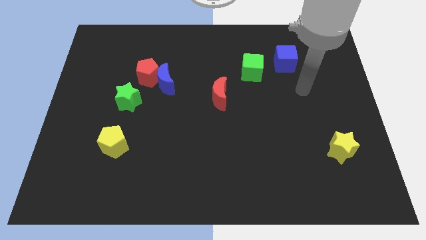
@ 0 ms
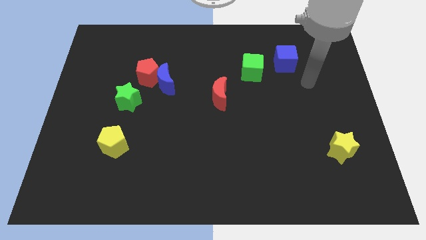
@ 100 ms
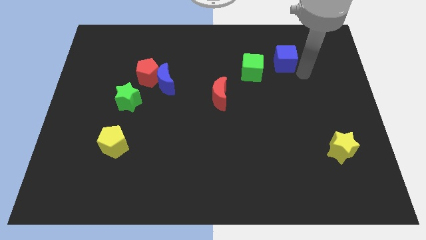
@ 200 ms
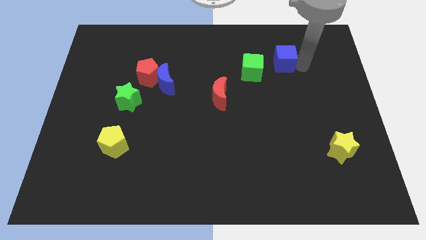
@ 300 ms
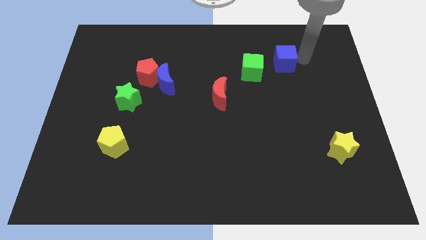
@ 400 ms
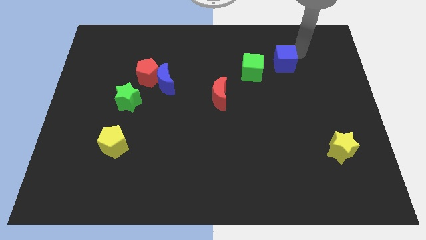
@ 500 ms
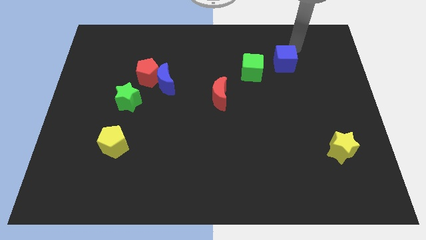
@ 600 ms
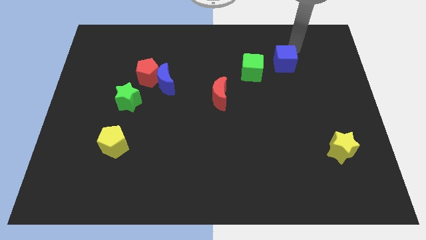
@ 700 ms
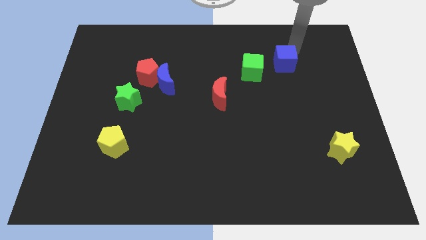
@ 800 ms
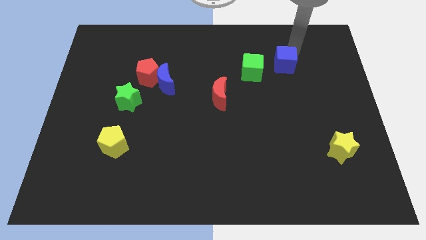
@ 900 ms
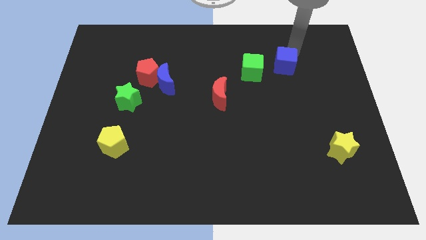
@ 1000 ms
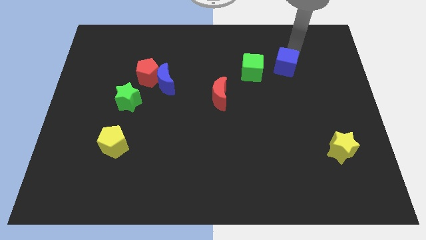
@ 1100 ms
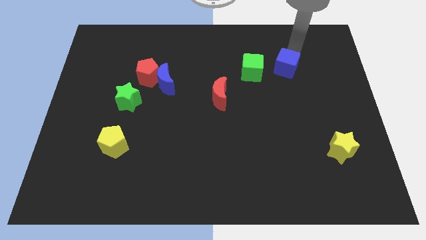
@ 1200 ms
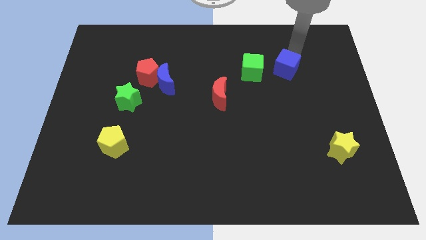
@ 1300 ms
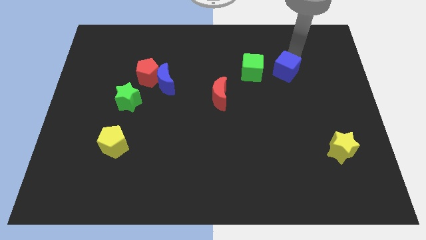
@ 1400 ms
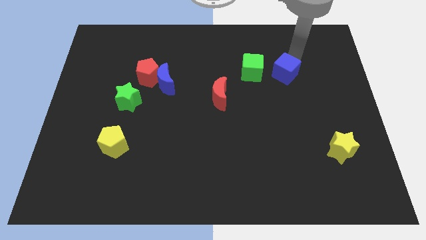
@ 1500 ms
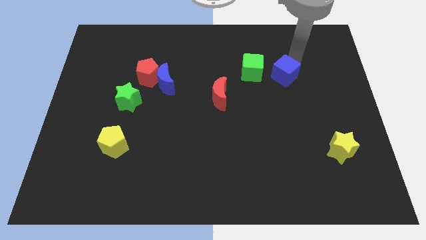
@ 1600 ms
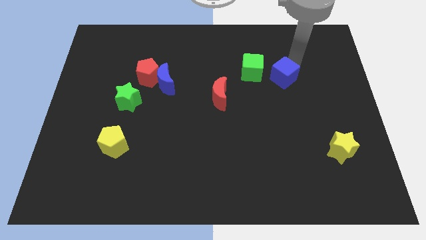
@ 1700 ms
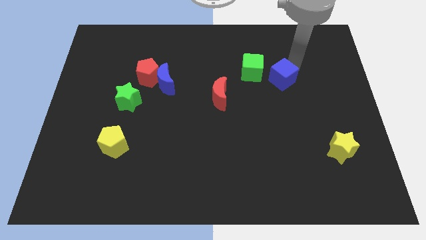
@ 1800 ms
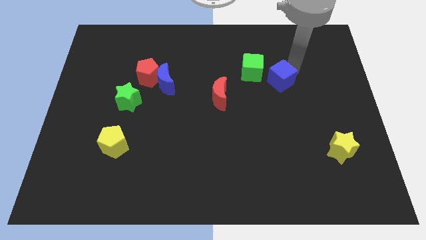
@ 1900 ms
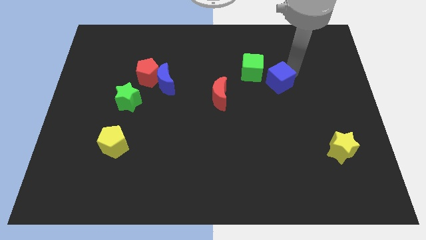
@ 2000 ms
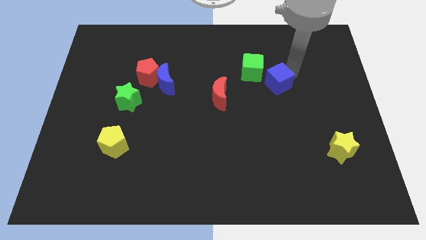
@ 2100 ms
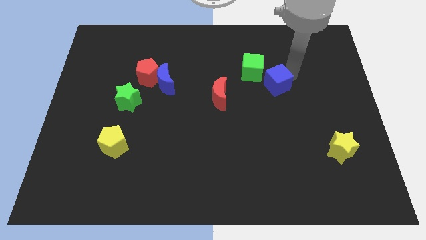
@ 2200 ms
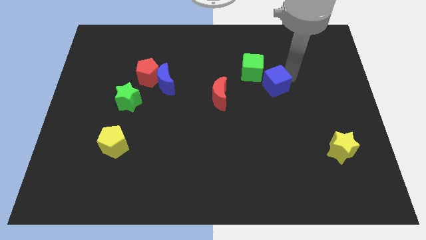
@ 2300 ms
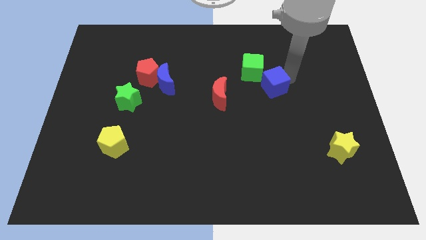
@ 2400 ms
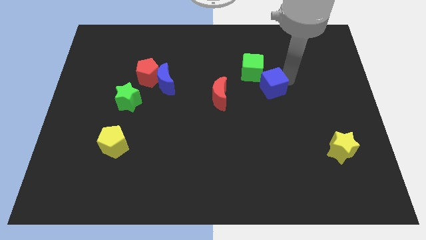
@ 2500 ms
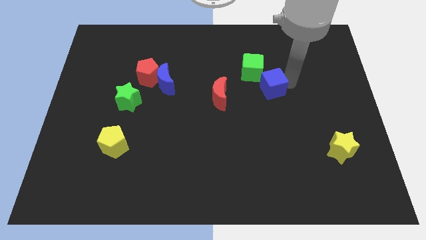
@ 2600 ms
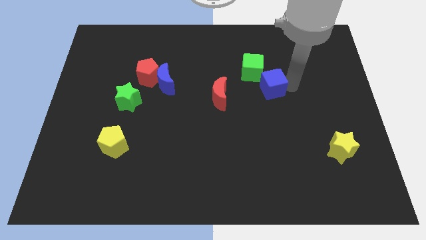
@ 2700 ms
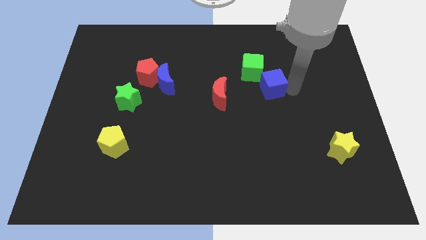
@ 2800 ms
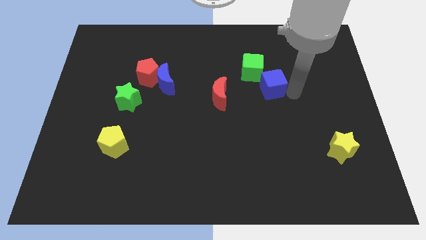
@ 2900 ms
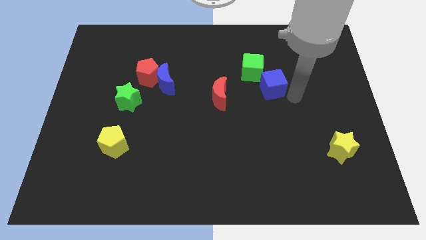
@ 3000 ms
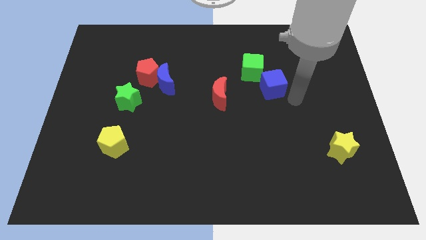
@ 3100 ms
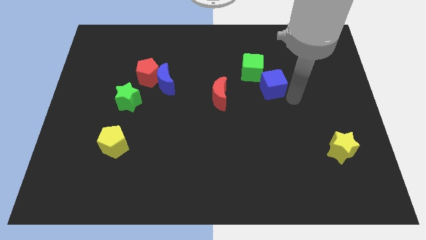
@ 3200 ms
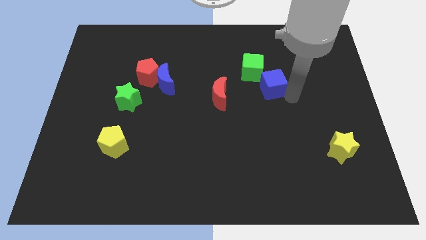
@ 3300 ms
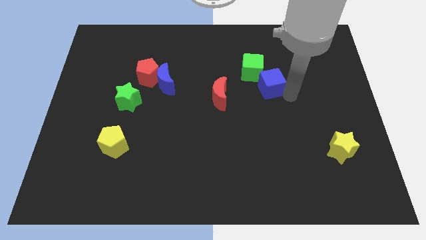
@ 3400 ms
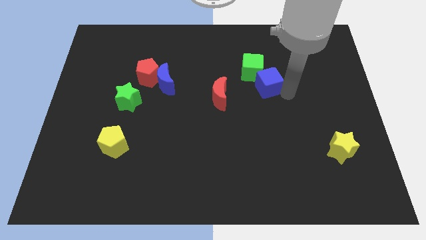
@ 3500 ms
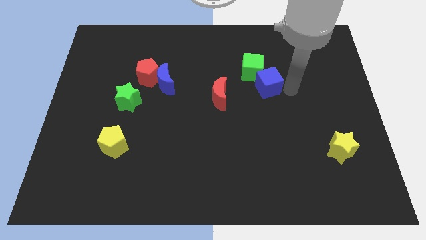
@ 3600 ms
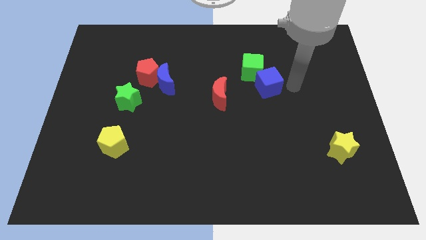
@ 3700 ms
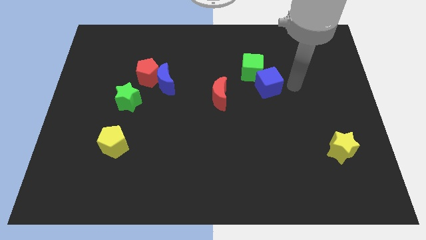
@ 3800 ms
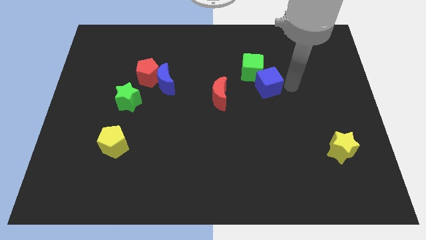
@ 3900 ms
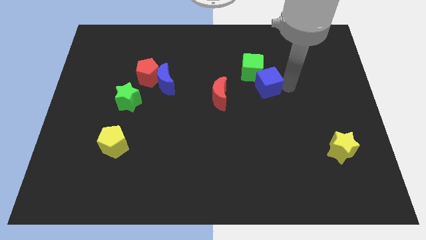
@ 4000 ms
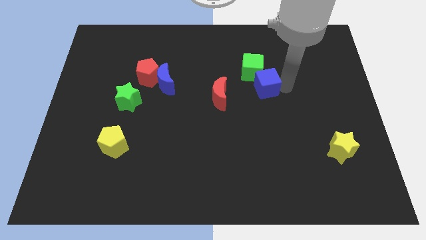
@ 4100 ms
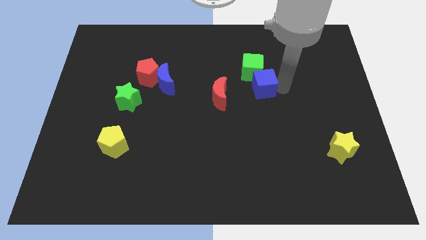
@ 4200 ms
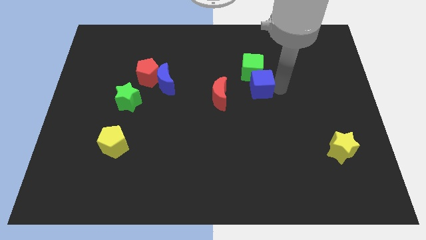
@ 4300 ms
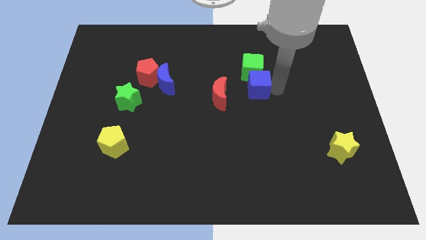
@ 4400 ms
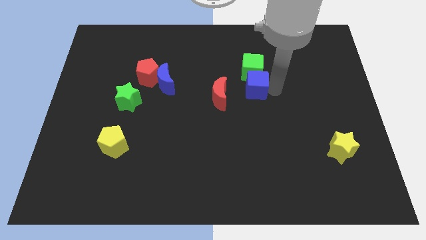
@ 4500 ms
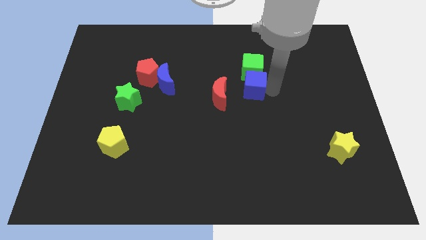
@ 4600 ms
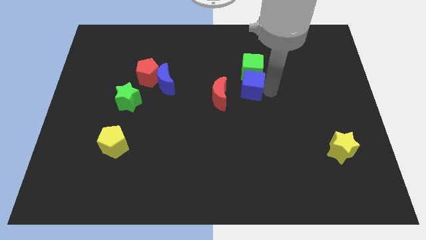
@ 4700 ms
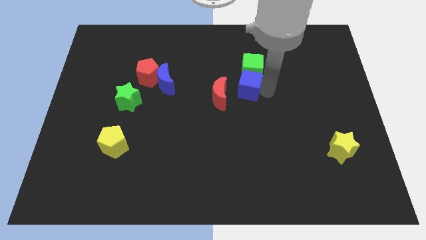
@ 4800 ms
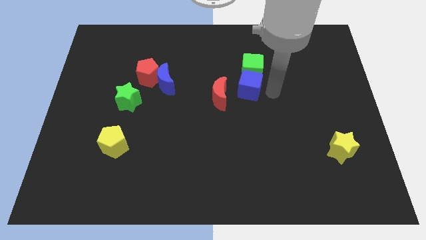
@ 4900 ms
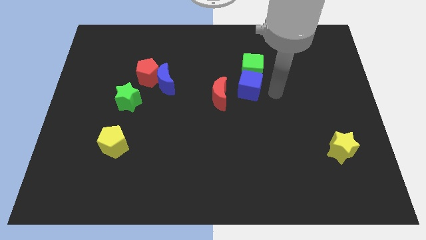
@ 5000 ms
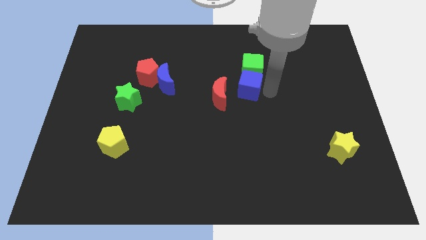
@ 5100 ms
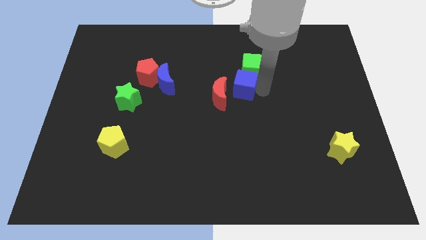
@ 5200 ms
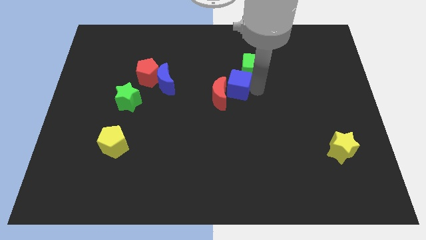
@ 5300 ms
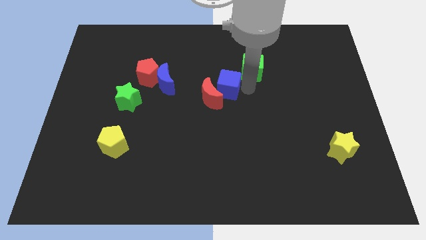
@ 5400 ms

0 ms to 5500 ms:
push the blue cube to the right of the blue moon

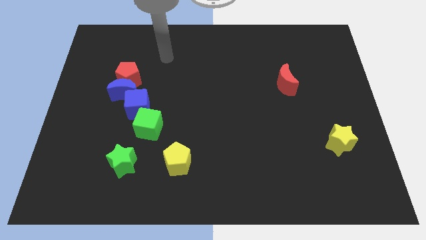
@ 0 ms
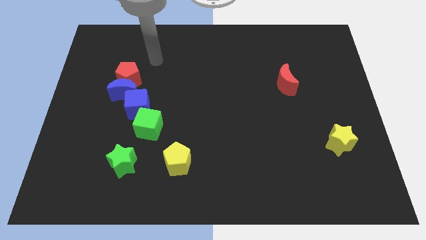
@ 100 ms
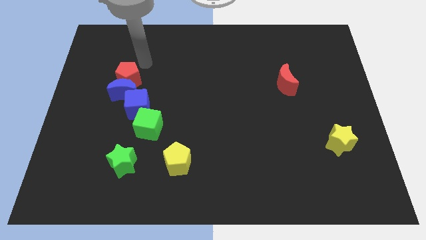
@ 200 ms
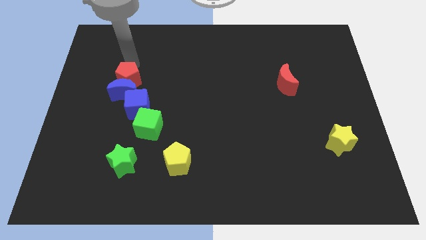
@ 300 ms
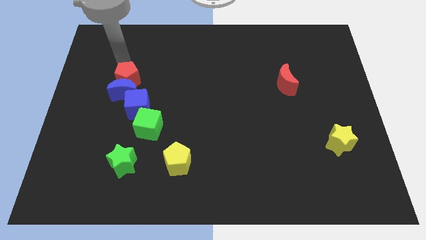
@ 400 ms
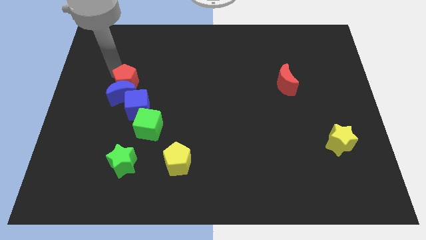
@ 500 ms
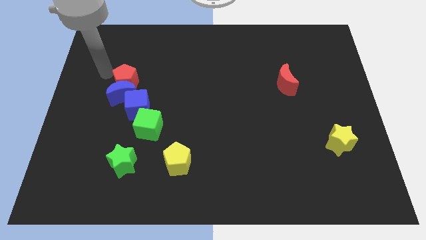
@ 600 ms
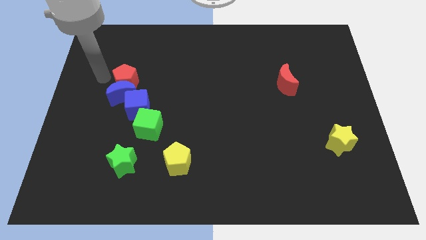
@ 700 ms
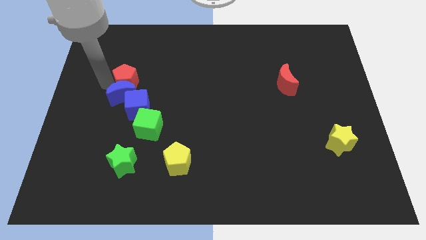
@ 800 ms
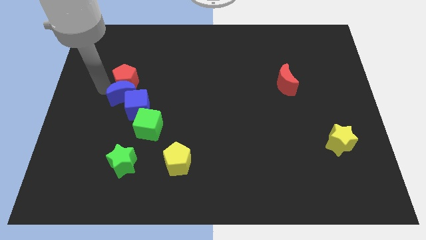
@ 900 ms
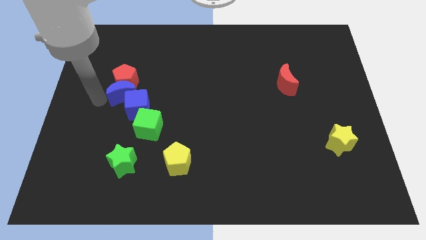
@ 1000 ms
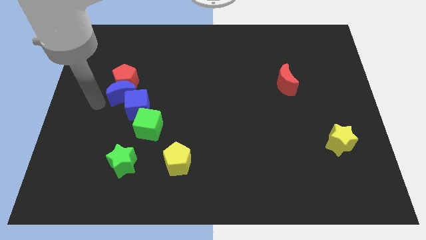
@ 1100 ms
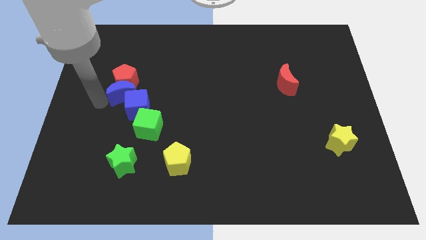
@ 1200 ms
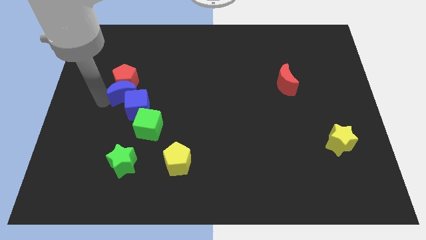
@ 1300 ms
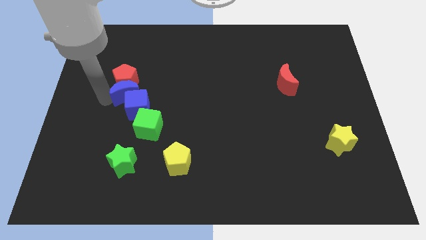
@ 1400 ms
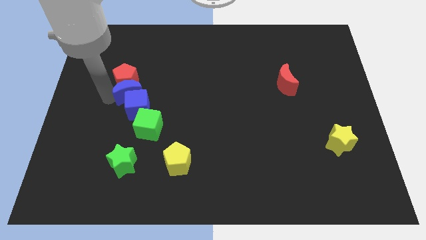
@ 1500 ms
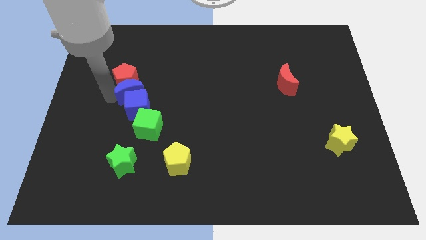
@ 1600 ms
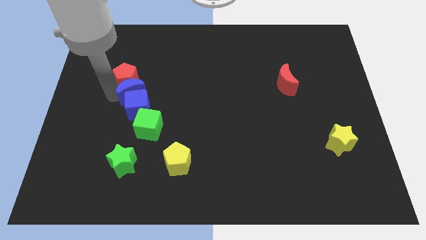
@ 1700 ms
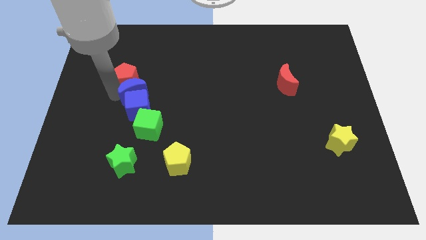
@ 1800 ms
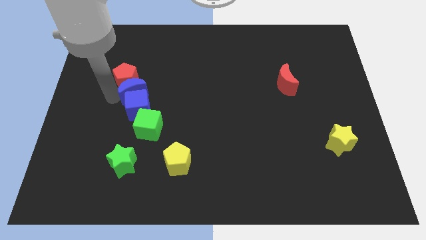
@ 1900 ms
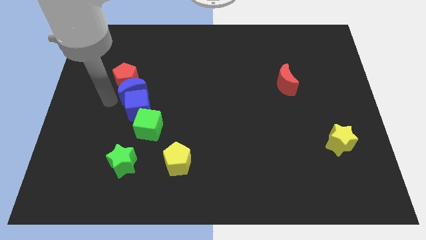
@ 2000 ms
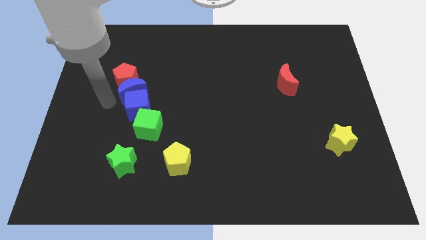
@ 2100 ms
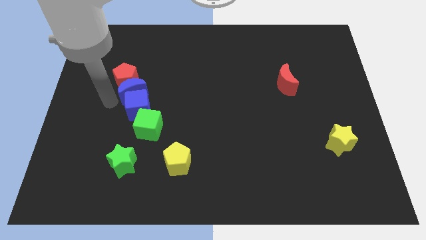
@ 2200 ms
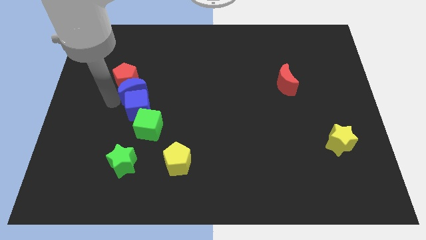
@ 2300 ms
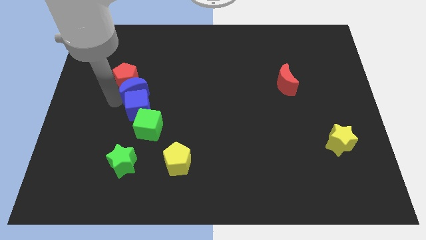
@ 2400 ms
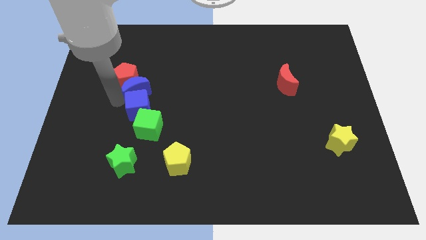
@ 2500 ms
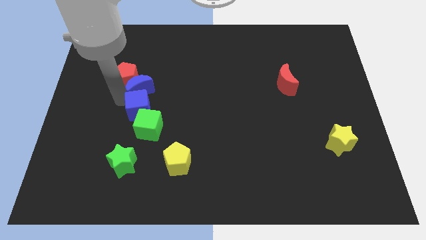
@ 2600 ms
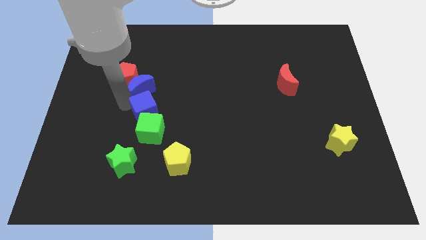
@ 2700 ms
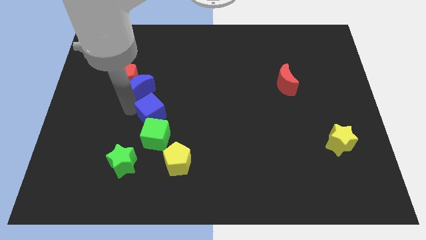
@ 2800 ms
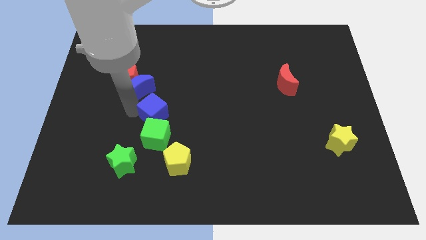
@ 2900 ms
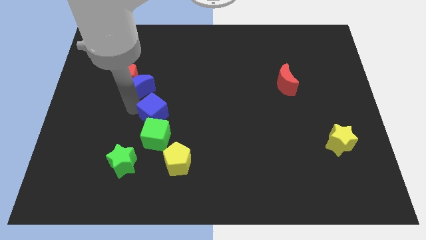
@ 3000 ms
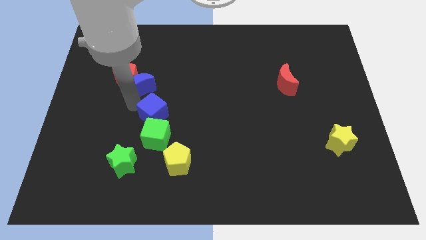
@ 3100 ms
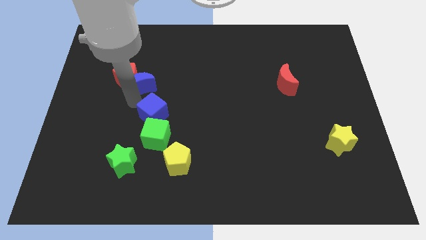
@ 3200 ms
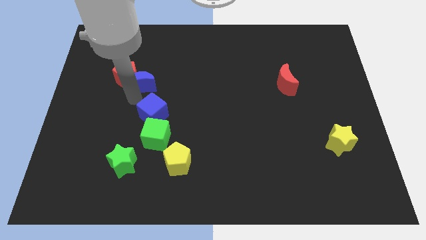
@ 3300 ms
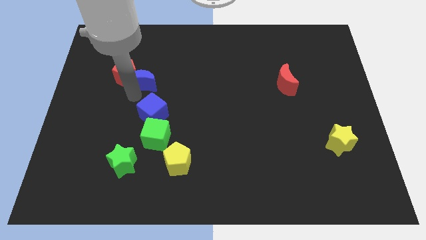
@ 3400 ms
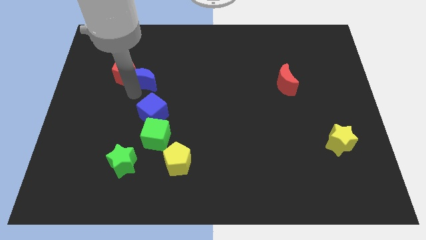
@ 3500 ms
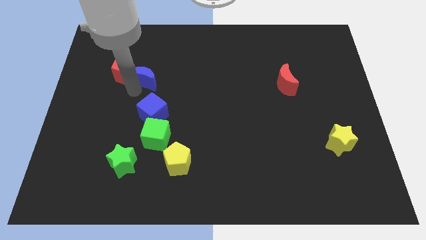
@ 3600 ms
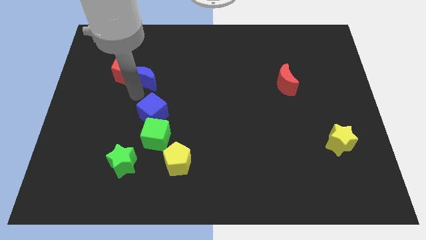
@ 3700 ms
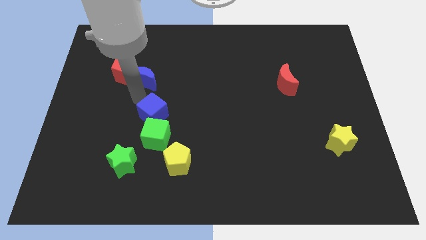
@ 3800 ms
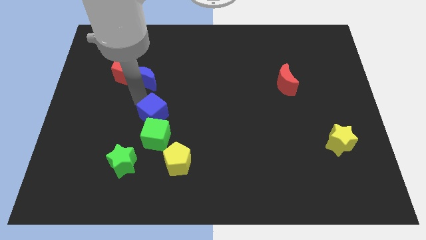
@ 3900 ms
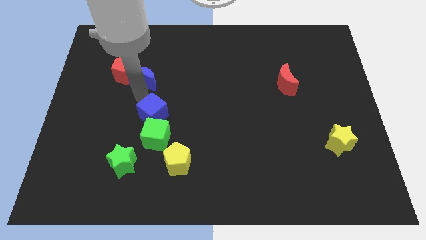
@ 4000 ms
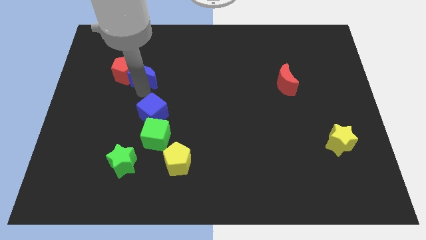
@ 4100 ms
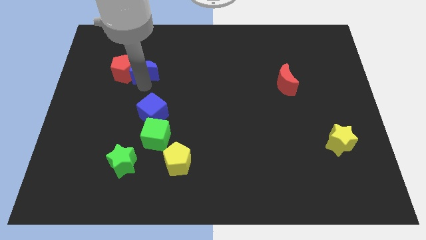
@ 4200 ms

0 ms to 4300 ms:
move the blue moon to the top right side of the red pentagon
